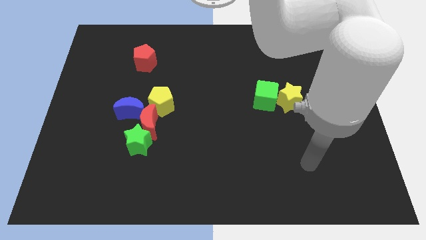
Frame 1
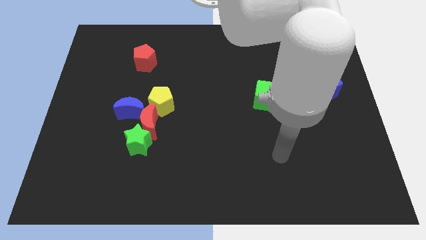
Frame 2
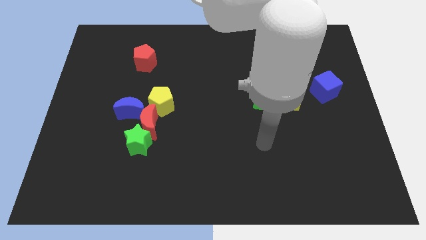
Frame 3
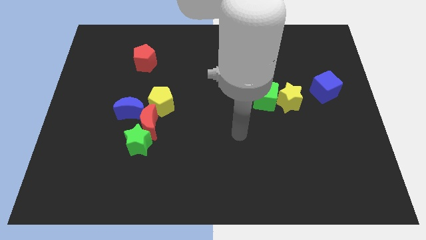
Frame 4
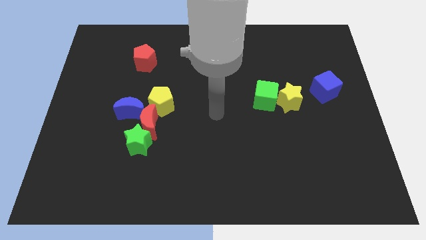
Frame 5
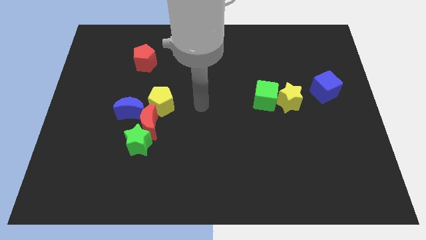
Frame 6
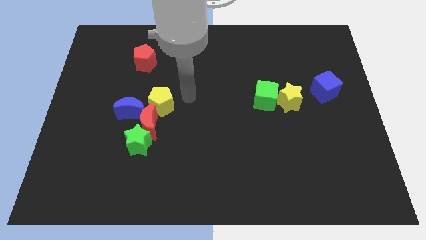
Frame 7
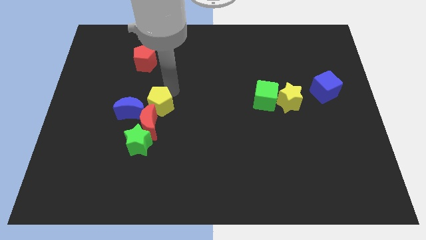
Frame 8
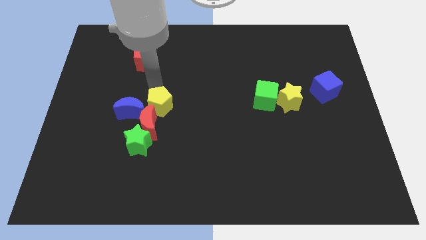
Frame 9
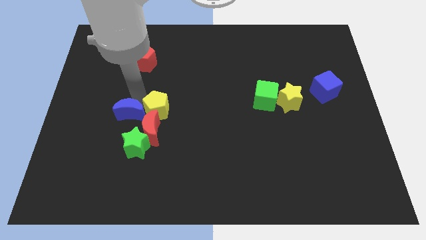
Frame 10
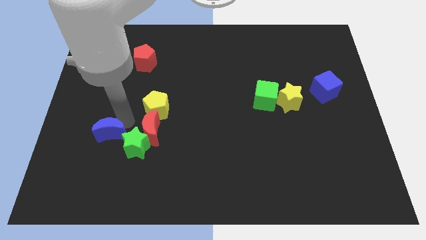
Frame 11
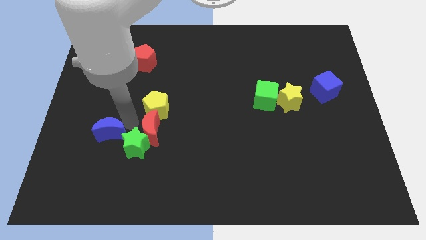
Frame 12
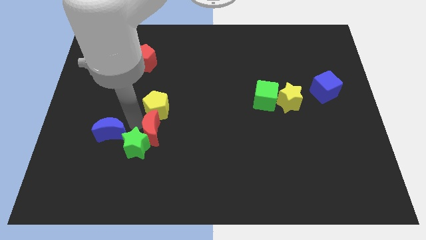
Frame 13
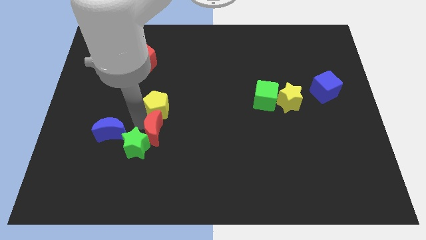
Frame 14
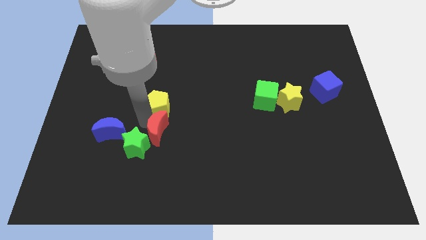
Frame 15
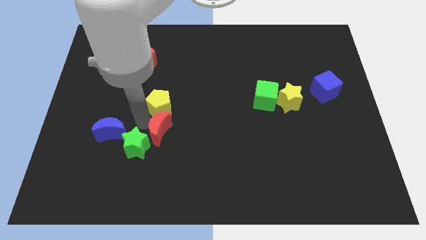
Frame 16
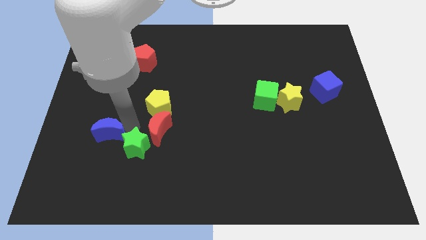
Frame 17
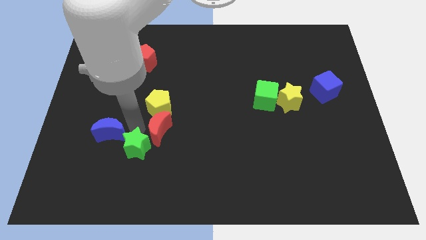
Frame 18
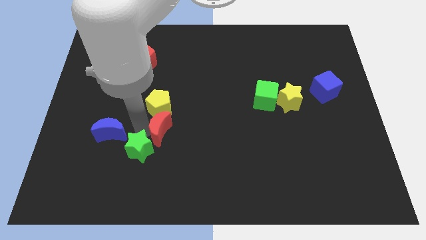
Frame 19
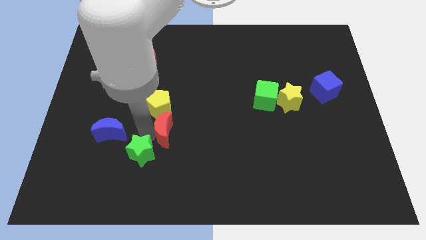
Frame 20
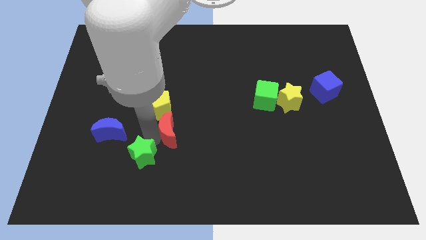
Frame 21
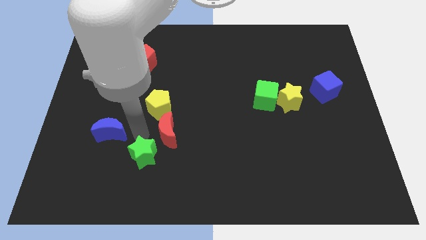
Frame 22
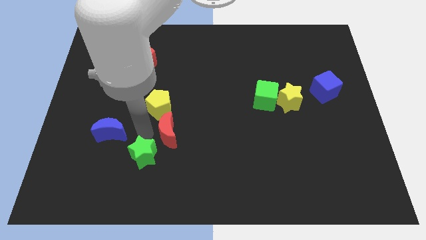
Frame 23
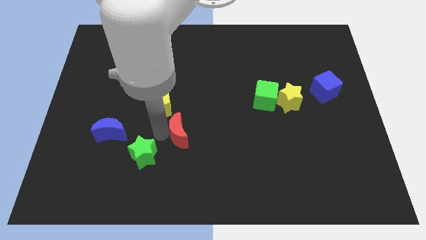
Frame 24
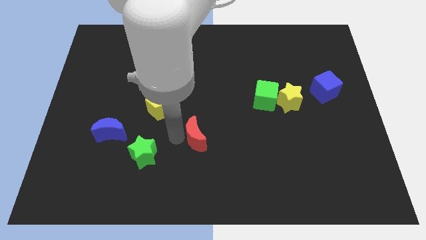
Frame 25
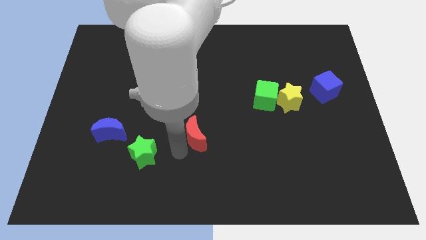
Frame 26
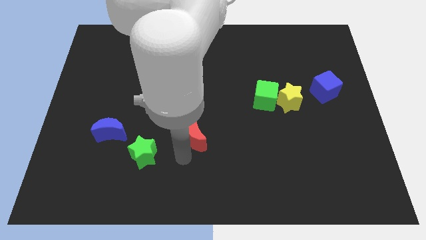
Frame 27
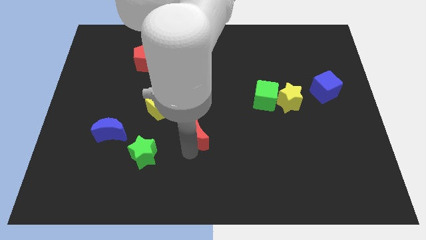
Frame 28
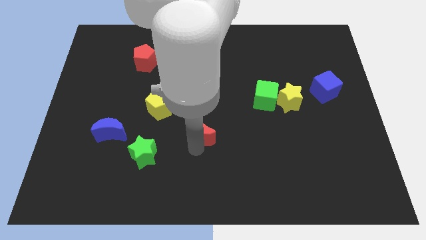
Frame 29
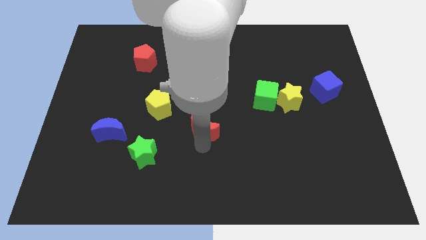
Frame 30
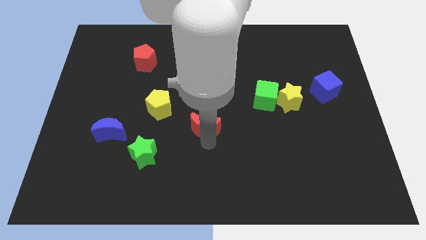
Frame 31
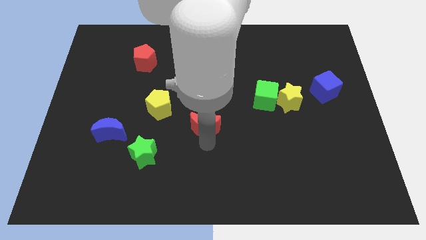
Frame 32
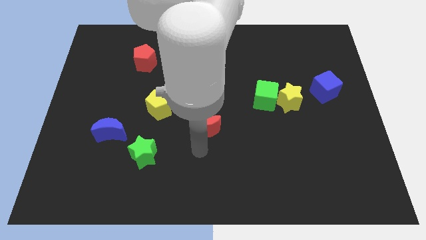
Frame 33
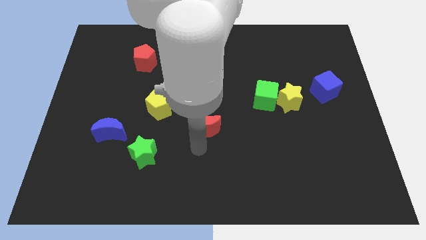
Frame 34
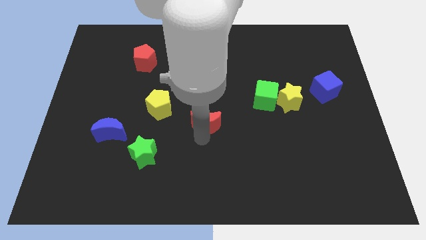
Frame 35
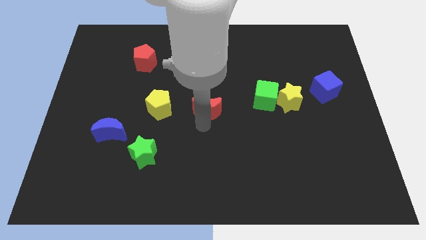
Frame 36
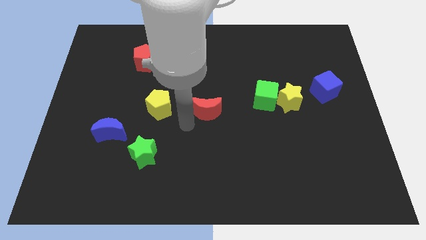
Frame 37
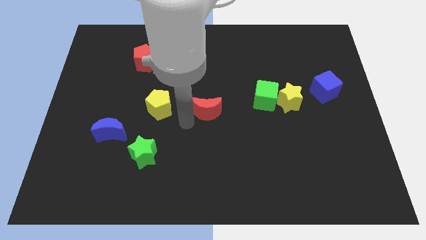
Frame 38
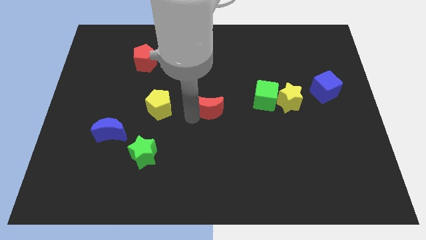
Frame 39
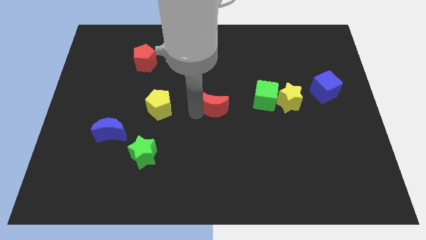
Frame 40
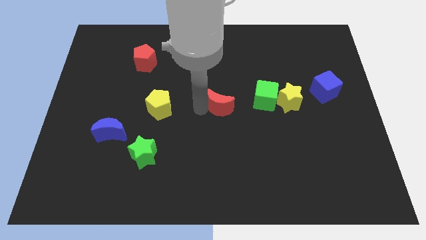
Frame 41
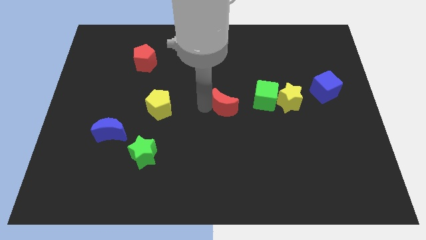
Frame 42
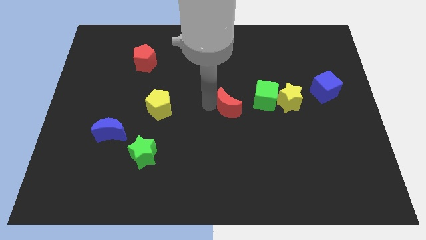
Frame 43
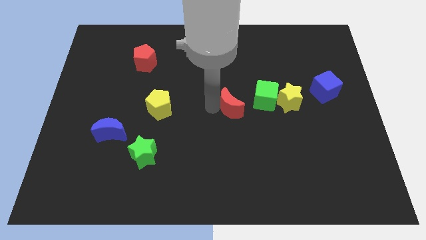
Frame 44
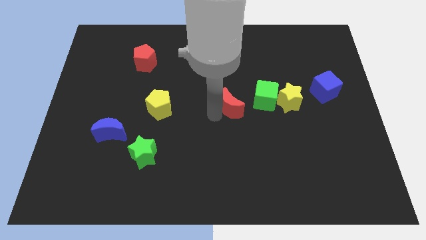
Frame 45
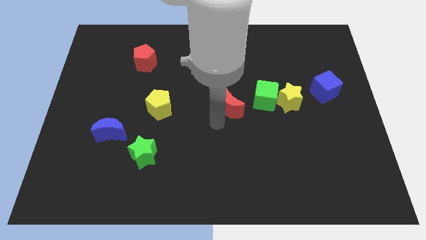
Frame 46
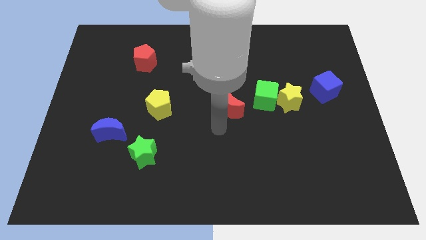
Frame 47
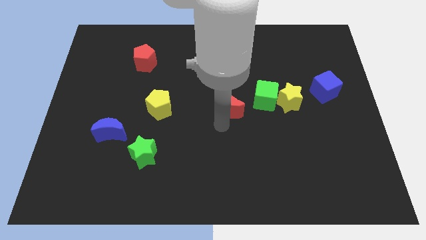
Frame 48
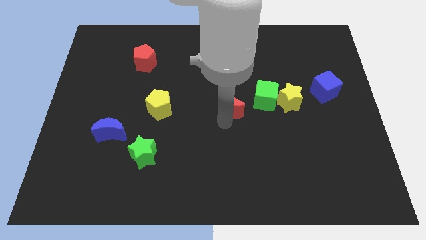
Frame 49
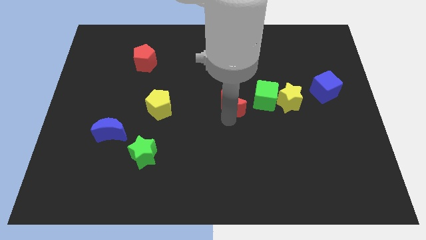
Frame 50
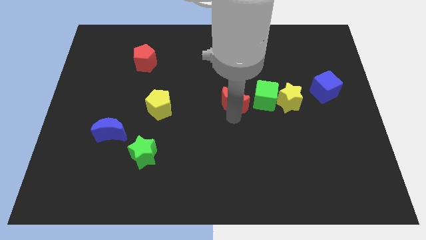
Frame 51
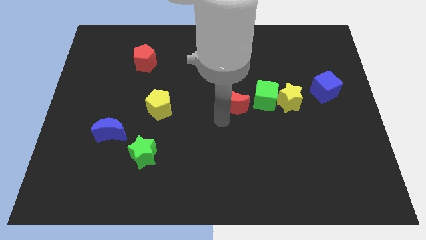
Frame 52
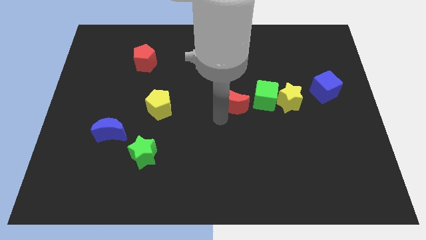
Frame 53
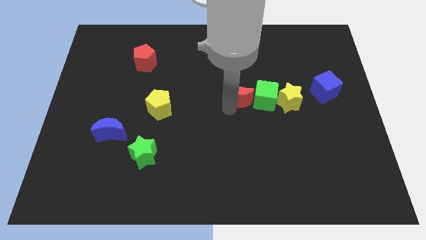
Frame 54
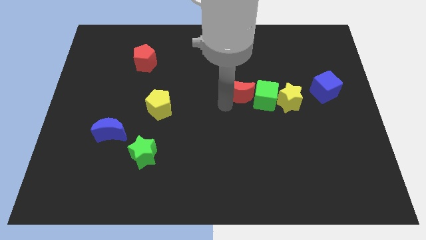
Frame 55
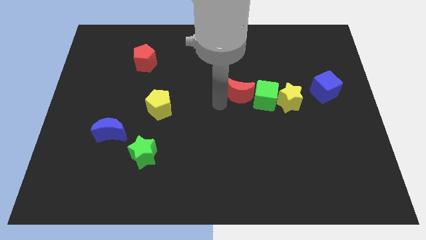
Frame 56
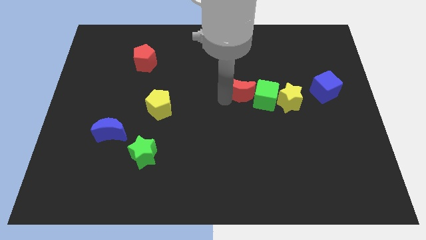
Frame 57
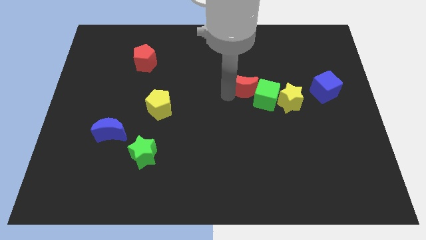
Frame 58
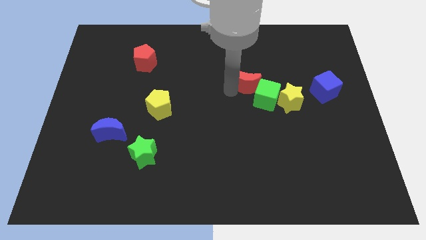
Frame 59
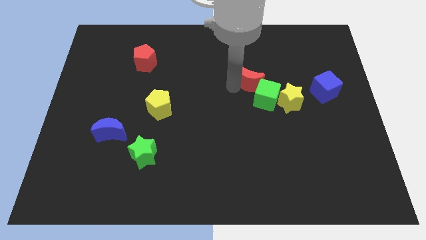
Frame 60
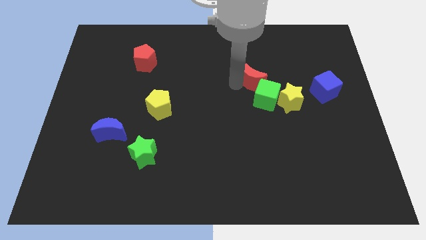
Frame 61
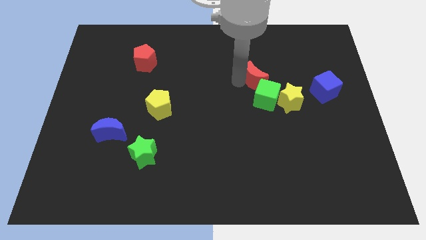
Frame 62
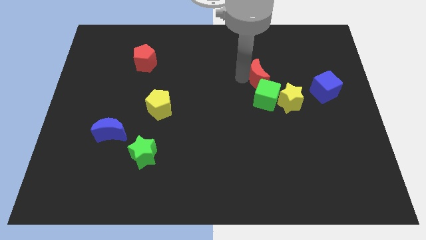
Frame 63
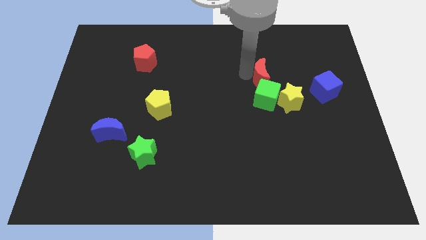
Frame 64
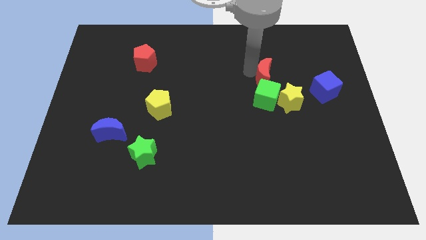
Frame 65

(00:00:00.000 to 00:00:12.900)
put the red moon to the top right side of the green cube
